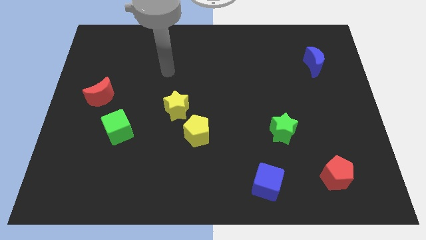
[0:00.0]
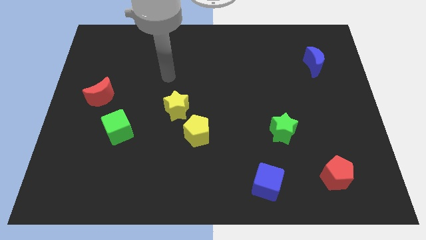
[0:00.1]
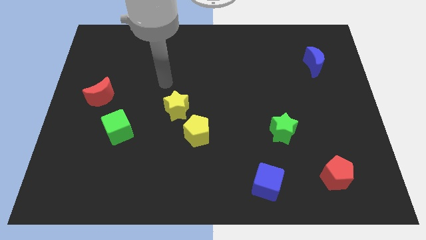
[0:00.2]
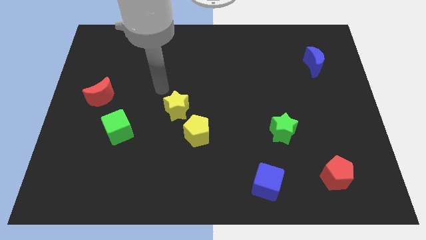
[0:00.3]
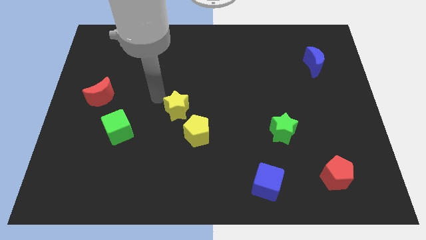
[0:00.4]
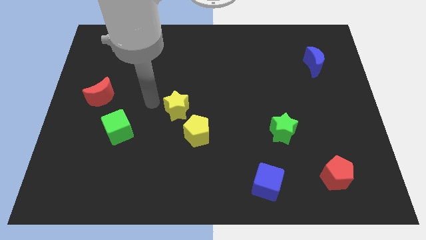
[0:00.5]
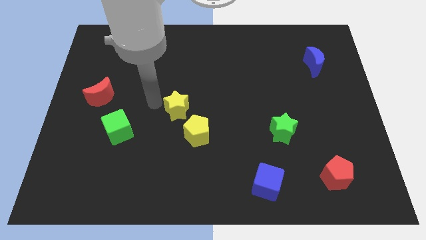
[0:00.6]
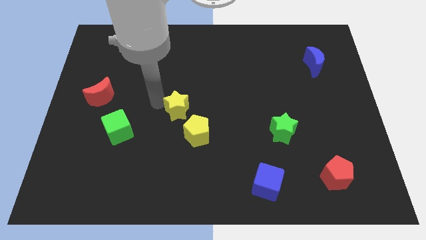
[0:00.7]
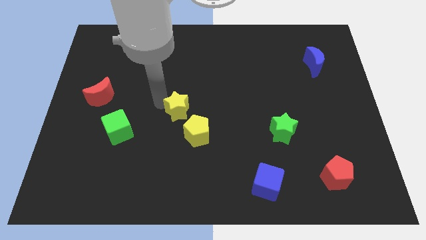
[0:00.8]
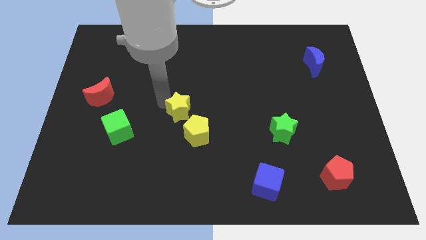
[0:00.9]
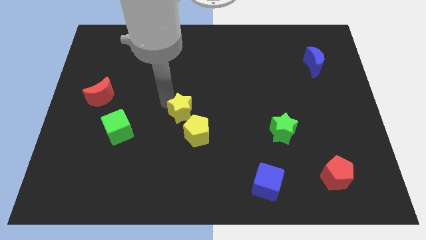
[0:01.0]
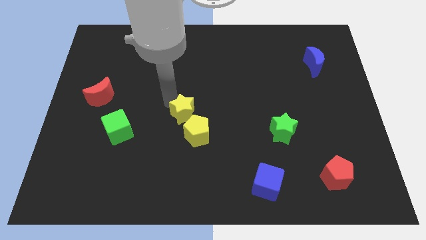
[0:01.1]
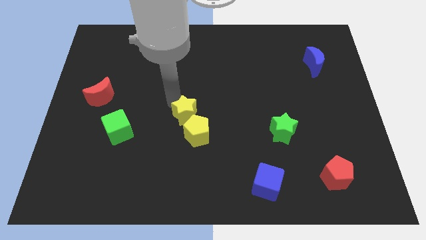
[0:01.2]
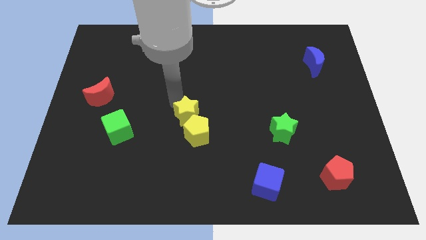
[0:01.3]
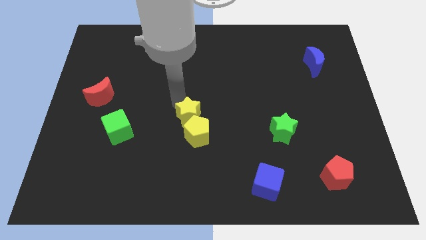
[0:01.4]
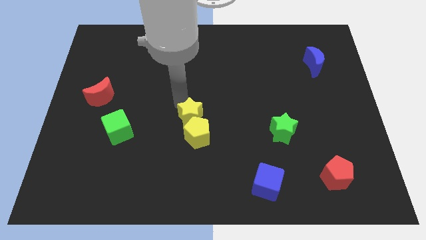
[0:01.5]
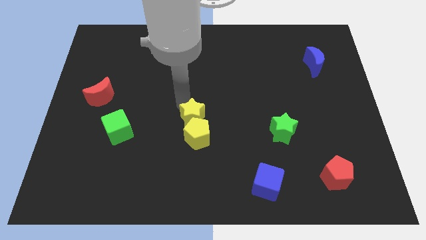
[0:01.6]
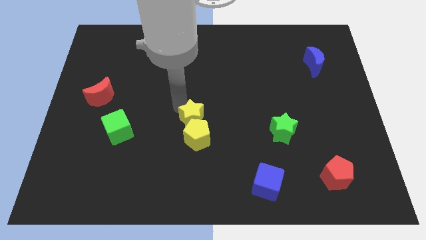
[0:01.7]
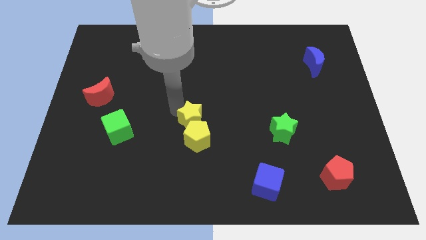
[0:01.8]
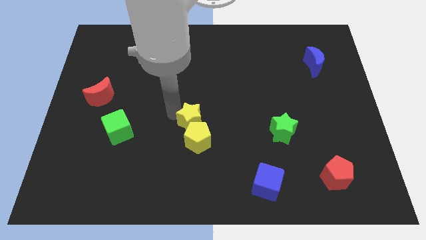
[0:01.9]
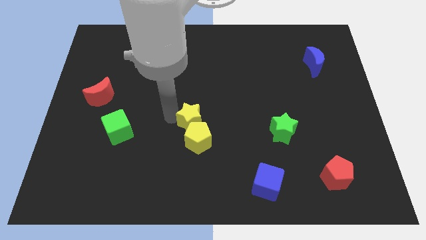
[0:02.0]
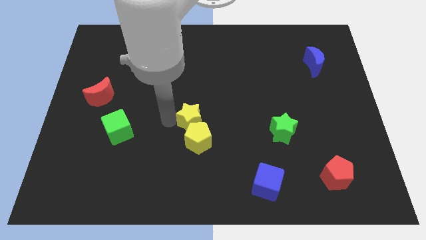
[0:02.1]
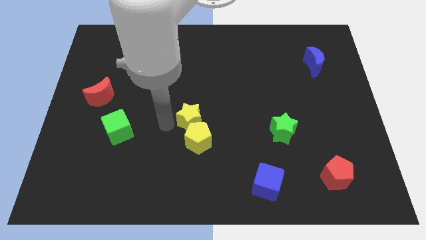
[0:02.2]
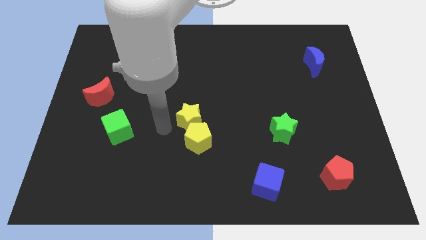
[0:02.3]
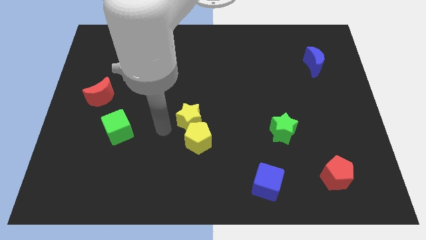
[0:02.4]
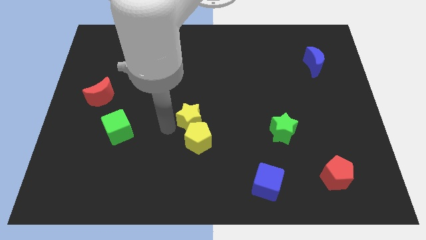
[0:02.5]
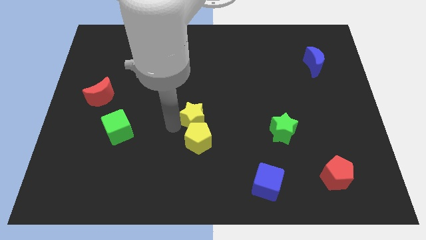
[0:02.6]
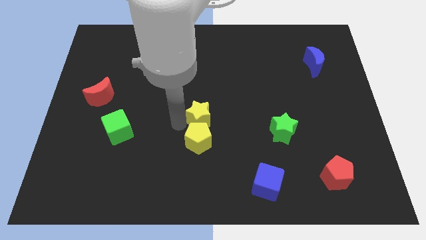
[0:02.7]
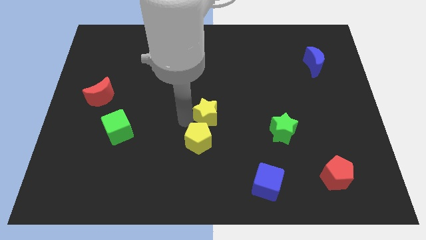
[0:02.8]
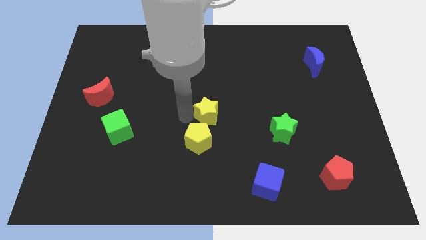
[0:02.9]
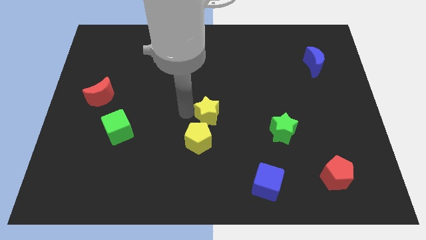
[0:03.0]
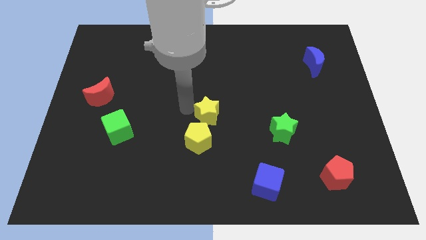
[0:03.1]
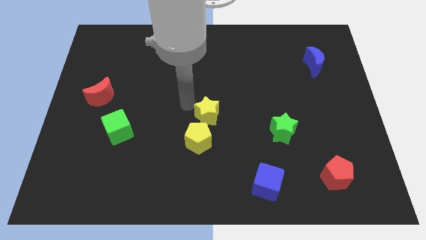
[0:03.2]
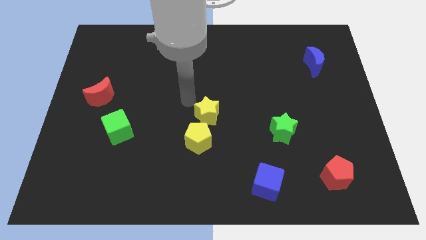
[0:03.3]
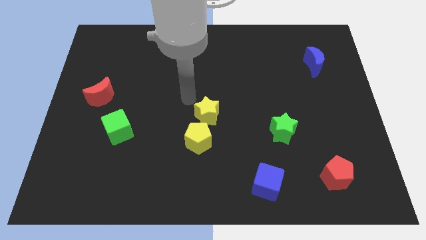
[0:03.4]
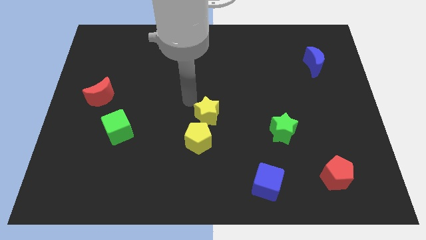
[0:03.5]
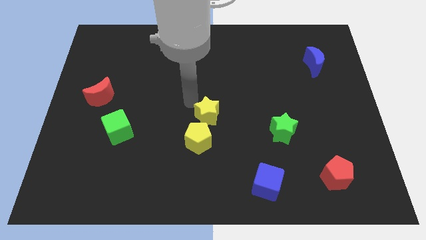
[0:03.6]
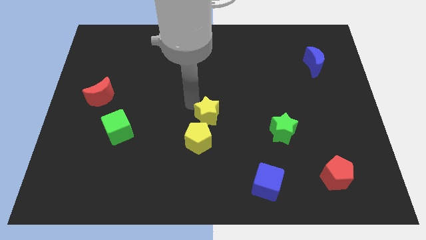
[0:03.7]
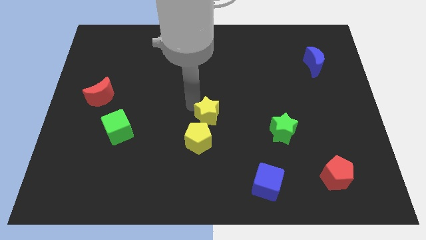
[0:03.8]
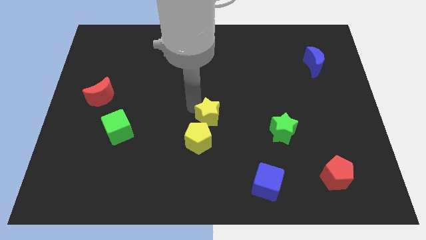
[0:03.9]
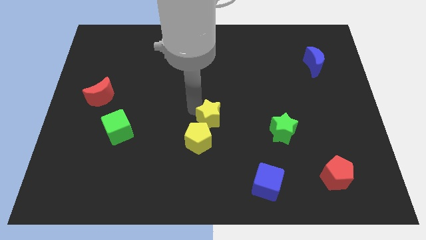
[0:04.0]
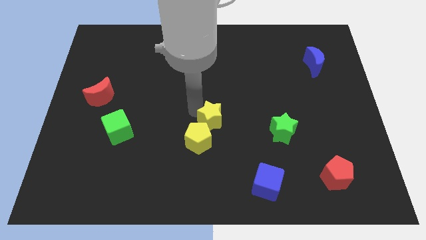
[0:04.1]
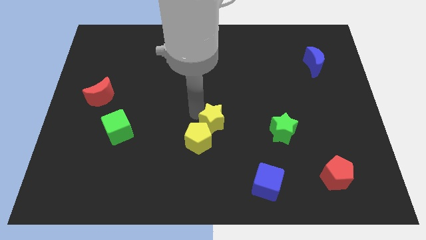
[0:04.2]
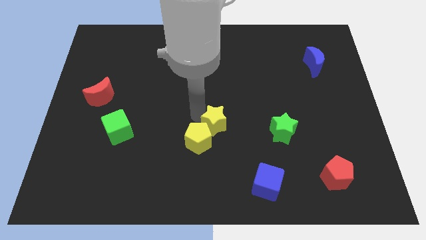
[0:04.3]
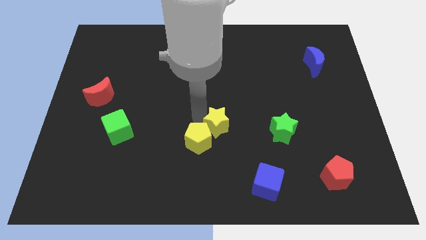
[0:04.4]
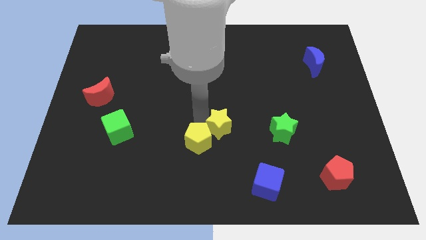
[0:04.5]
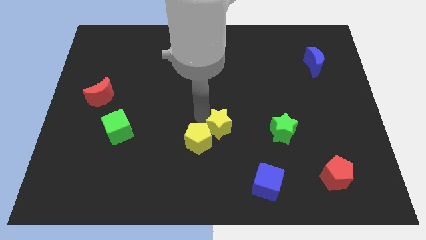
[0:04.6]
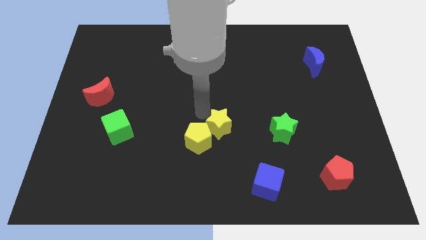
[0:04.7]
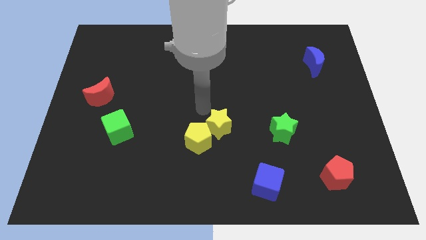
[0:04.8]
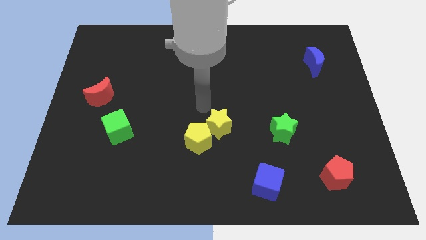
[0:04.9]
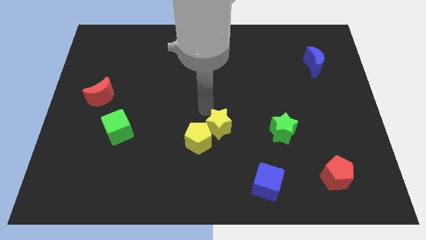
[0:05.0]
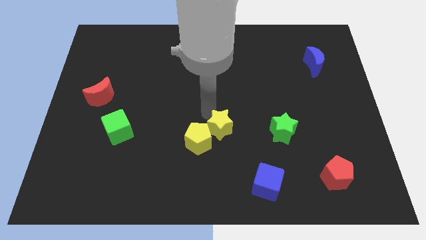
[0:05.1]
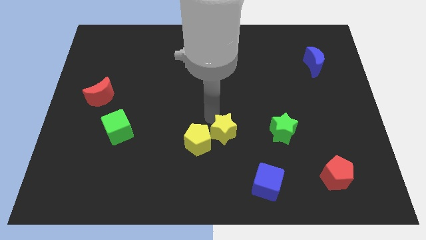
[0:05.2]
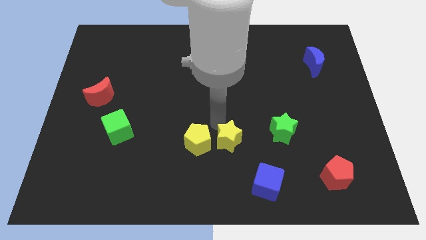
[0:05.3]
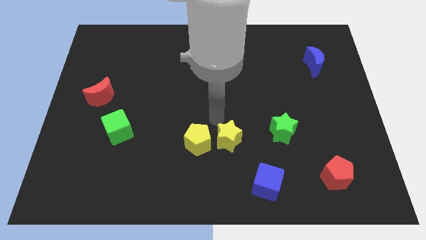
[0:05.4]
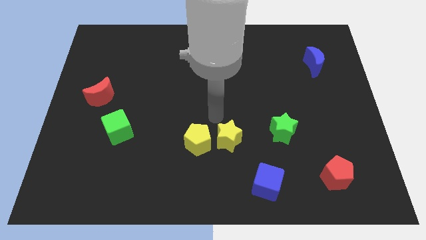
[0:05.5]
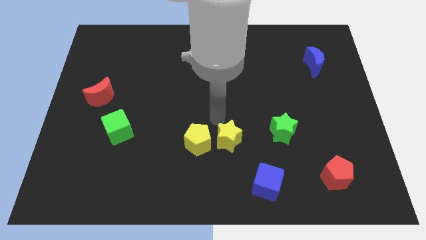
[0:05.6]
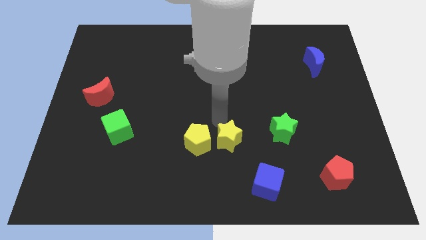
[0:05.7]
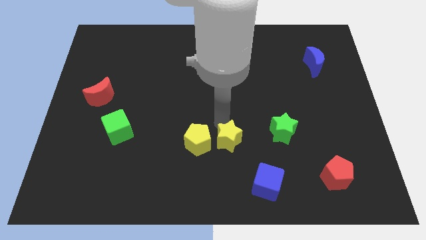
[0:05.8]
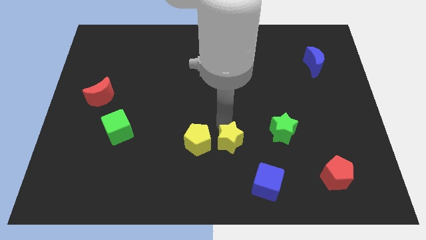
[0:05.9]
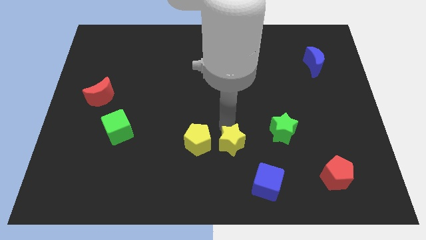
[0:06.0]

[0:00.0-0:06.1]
push the yellow star diagonally up and to the left of the blue cube

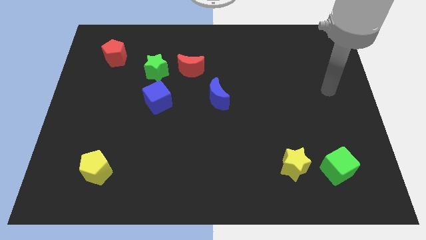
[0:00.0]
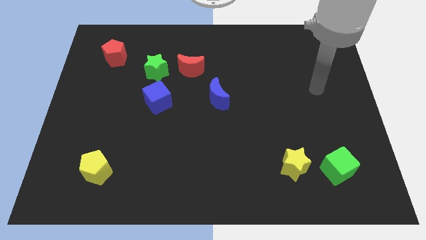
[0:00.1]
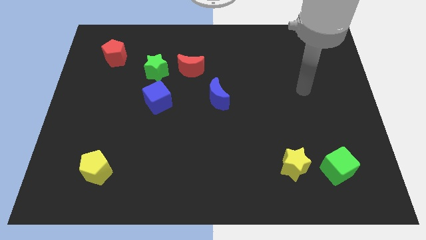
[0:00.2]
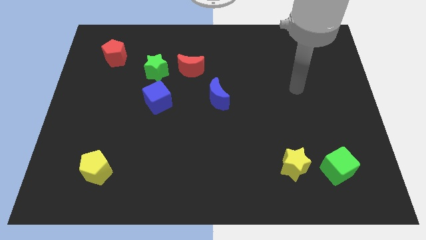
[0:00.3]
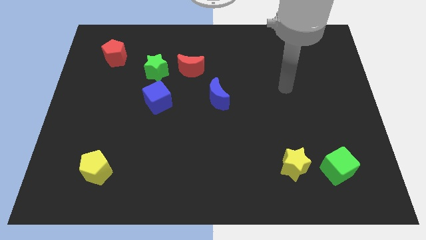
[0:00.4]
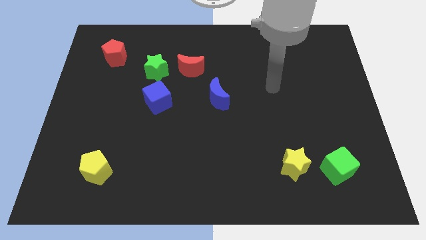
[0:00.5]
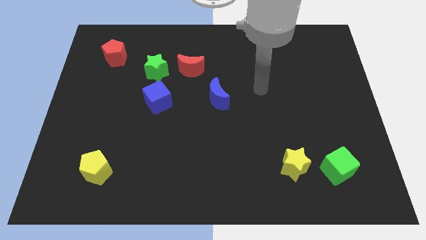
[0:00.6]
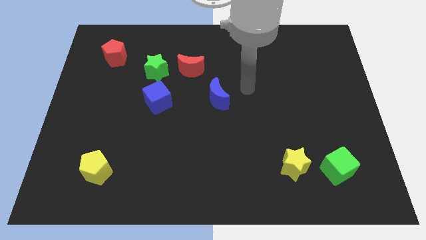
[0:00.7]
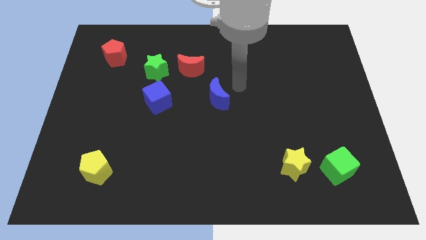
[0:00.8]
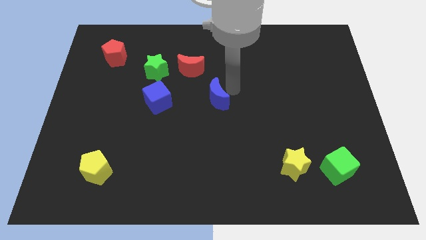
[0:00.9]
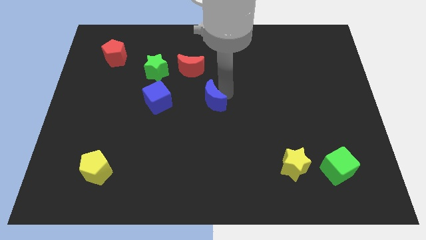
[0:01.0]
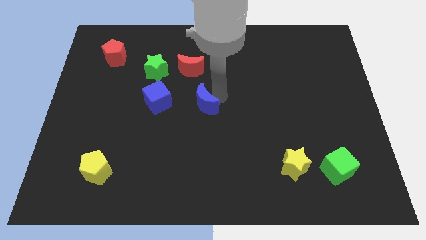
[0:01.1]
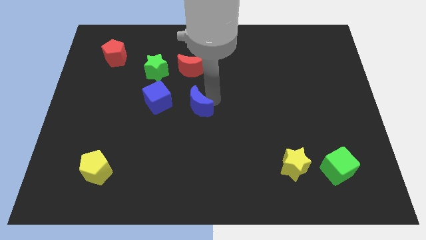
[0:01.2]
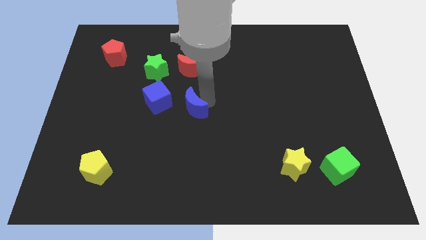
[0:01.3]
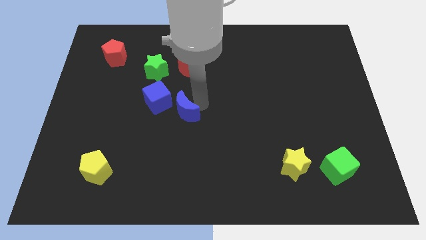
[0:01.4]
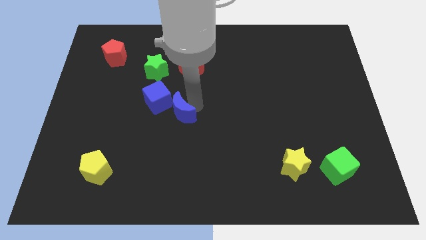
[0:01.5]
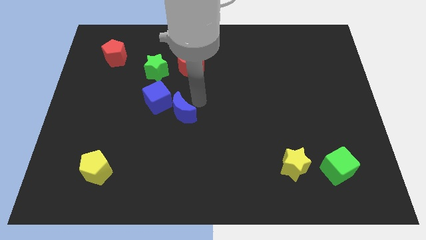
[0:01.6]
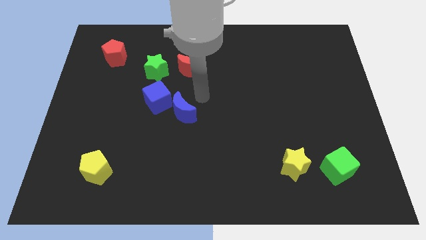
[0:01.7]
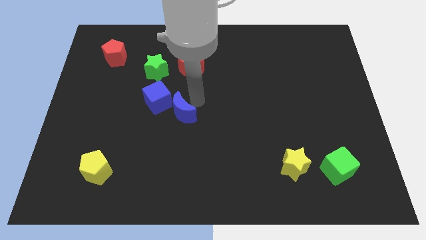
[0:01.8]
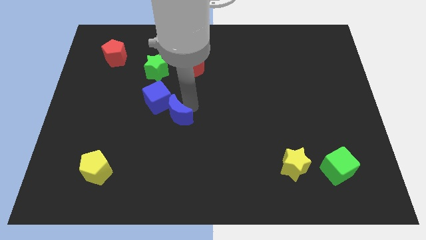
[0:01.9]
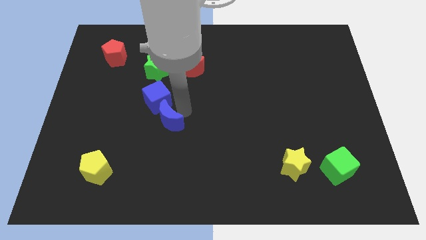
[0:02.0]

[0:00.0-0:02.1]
put the blue moon to the bottom of the blue cube
